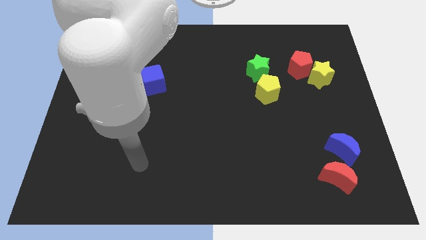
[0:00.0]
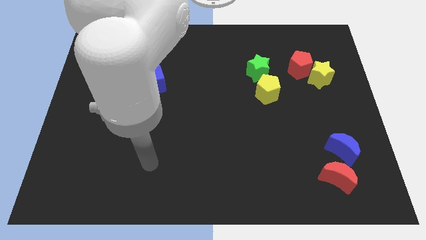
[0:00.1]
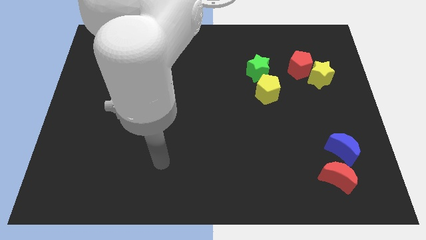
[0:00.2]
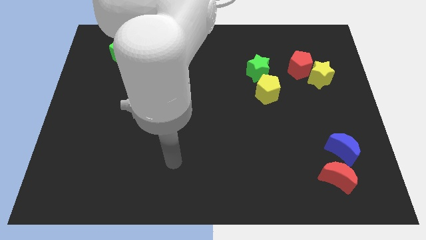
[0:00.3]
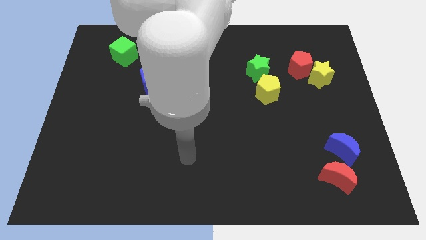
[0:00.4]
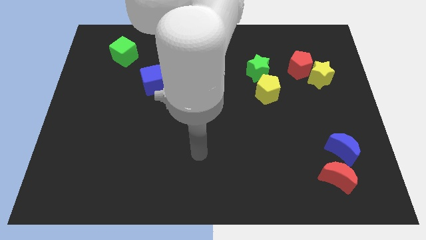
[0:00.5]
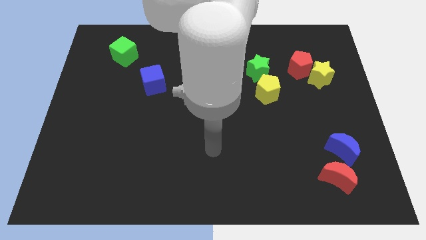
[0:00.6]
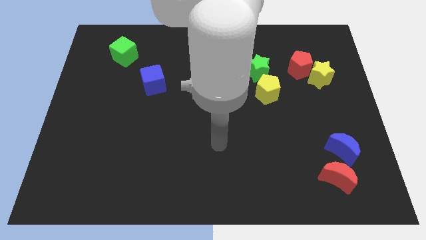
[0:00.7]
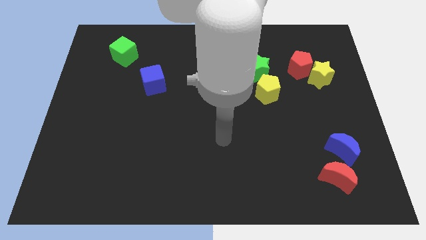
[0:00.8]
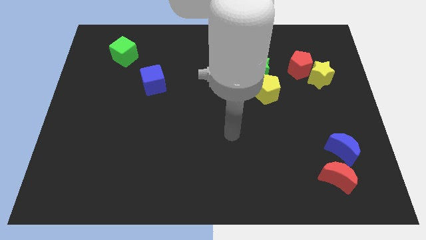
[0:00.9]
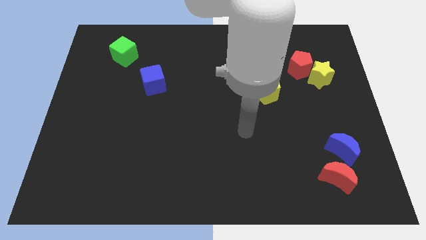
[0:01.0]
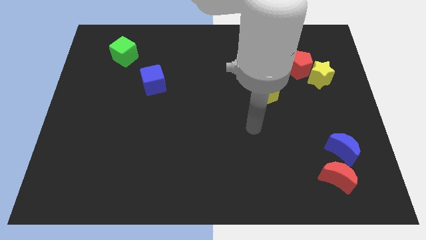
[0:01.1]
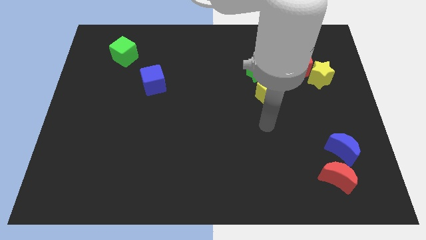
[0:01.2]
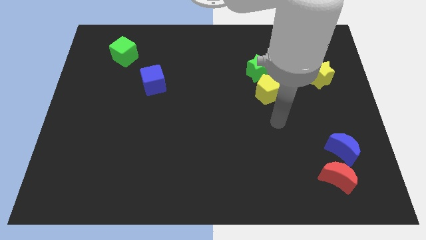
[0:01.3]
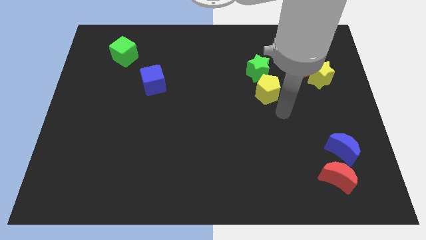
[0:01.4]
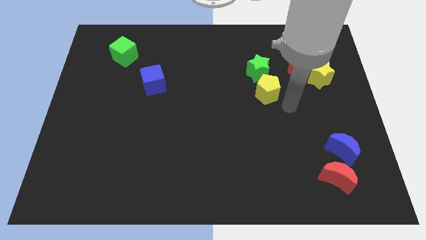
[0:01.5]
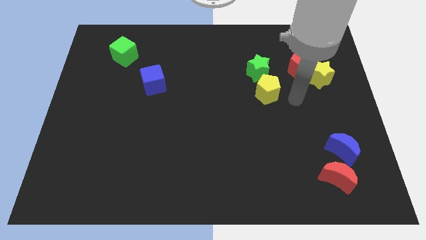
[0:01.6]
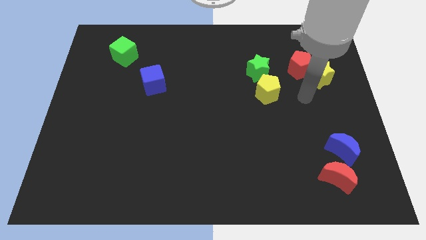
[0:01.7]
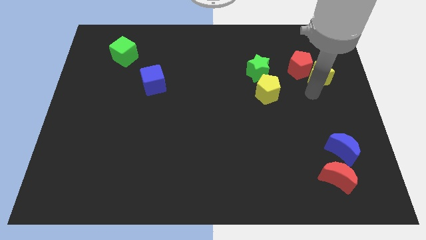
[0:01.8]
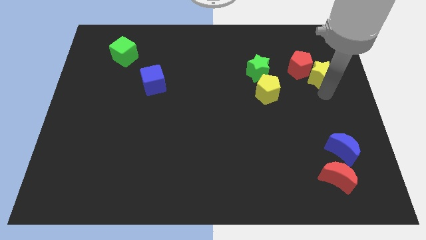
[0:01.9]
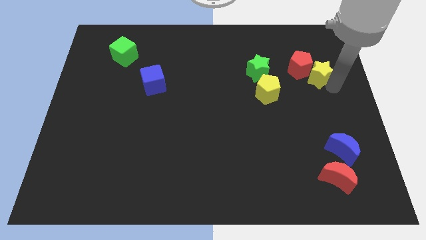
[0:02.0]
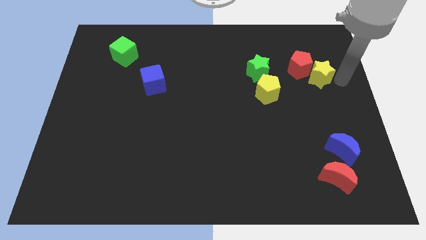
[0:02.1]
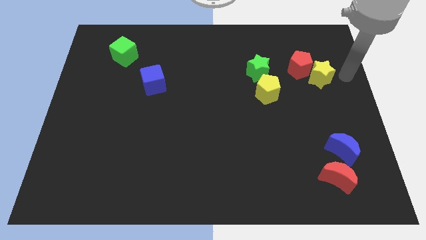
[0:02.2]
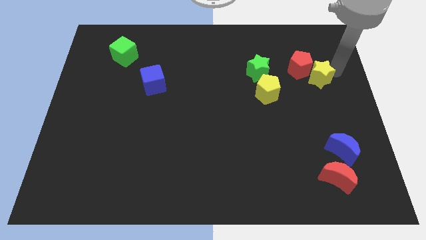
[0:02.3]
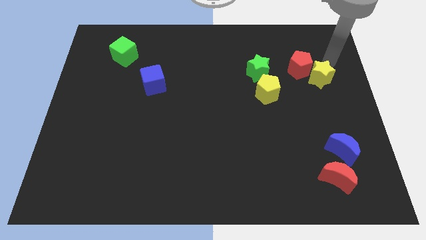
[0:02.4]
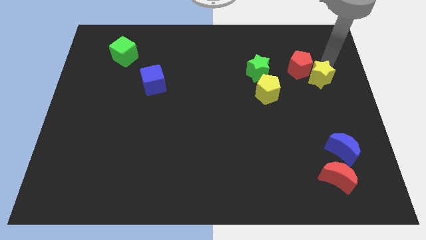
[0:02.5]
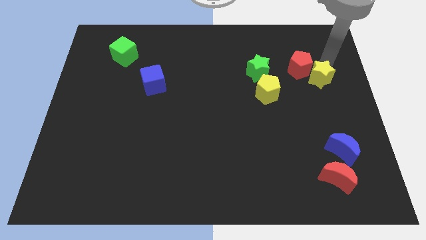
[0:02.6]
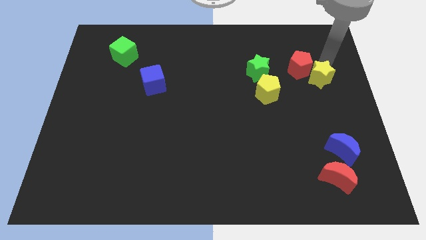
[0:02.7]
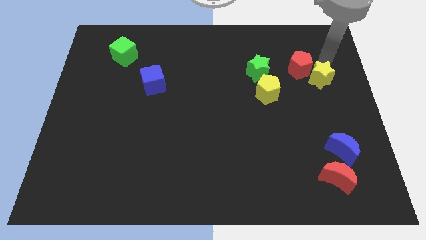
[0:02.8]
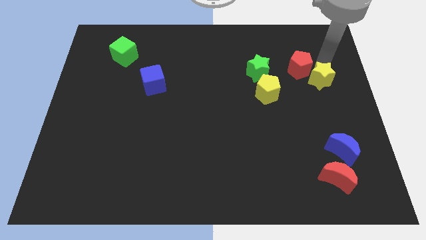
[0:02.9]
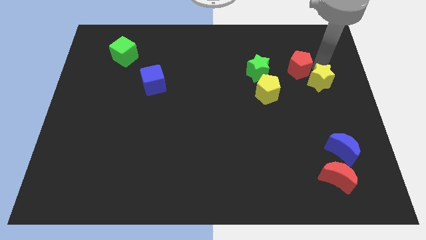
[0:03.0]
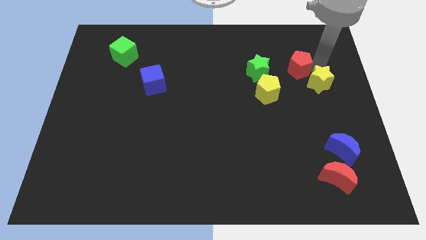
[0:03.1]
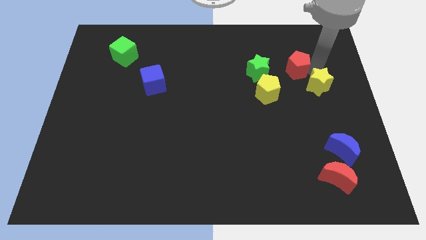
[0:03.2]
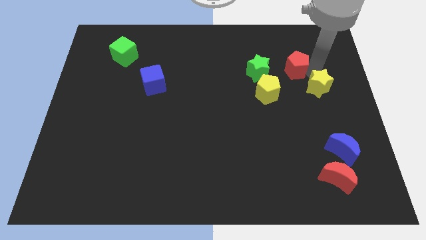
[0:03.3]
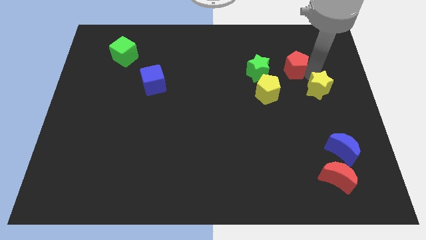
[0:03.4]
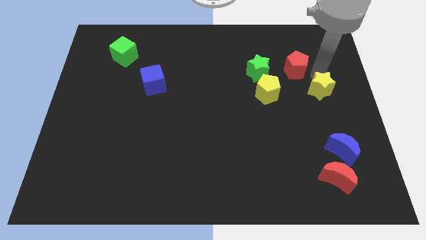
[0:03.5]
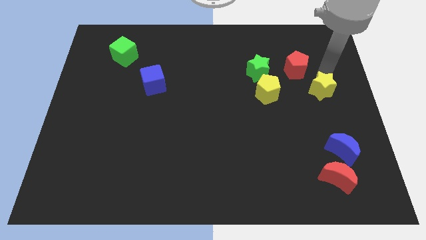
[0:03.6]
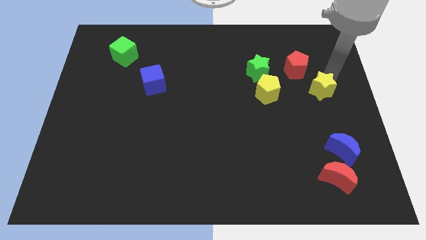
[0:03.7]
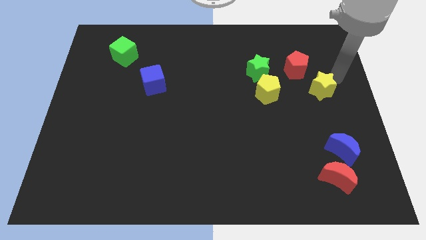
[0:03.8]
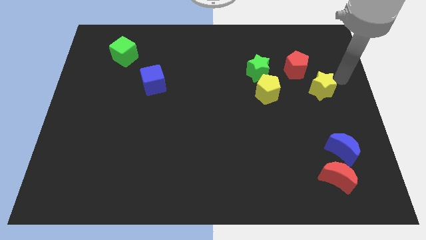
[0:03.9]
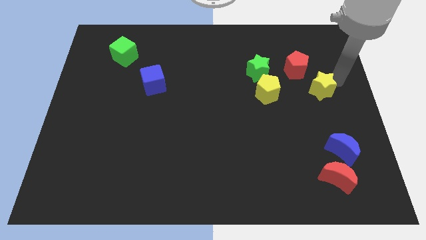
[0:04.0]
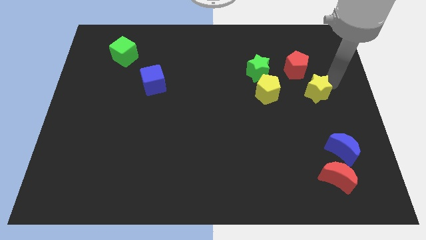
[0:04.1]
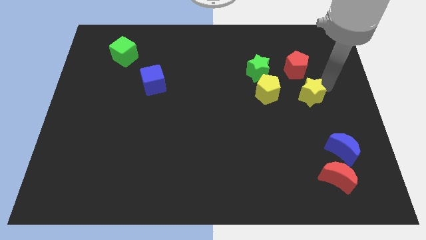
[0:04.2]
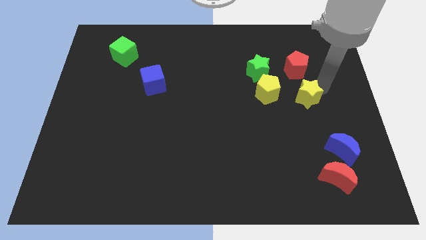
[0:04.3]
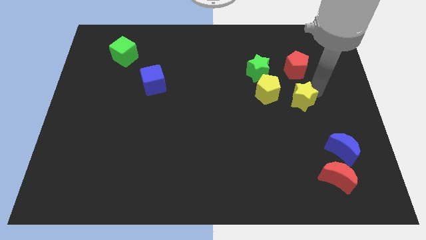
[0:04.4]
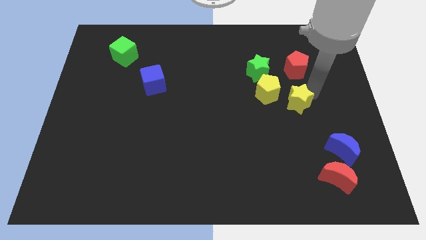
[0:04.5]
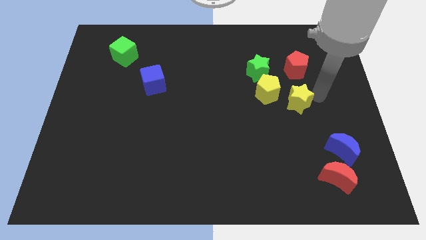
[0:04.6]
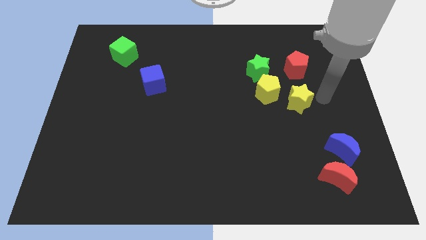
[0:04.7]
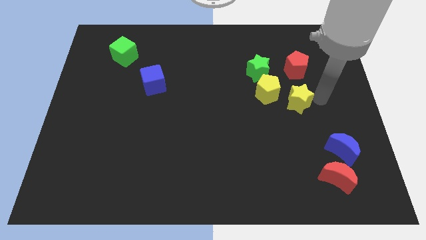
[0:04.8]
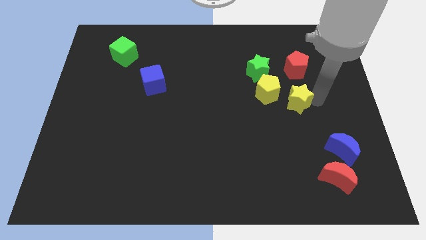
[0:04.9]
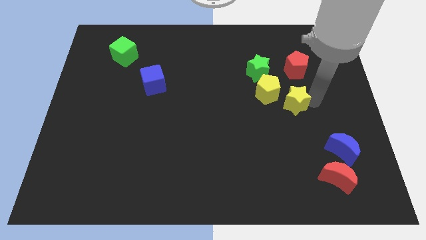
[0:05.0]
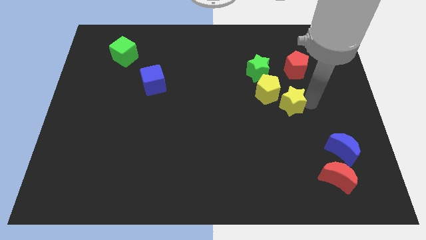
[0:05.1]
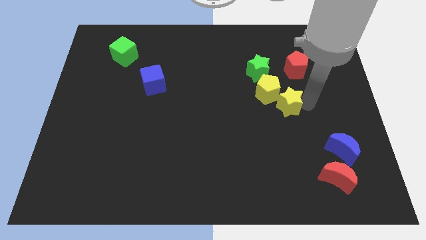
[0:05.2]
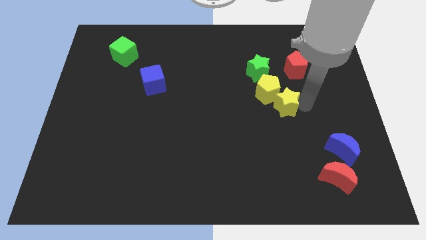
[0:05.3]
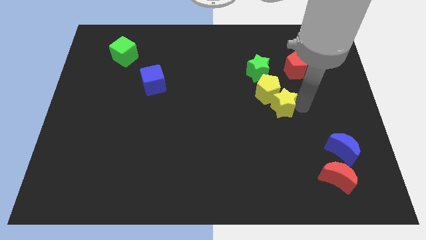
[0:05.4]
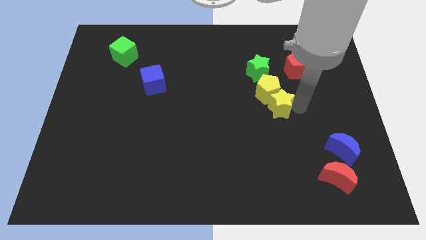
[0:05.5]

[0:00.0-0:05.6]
put the yellow star below the green star

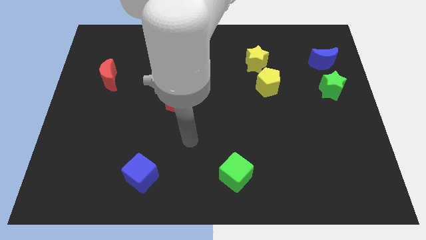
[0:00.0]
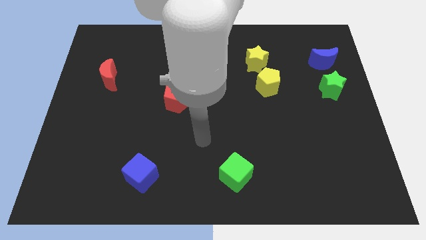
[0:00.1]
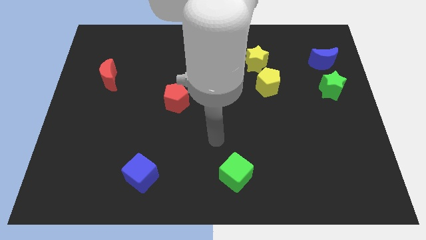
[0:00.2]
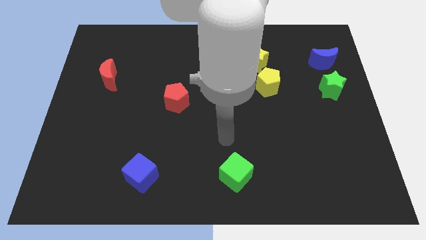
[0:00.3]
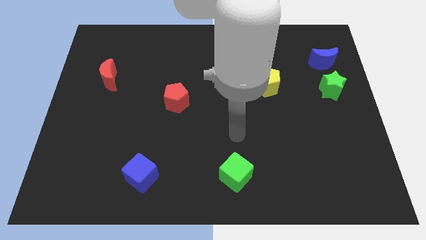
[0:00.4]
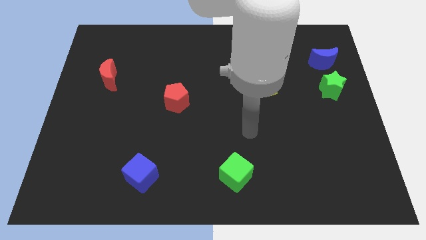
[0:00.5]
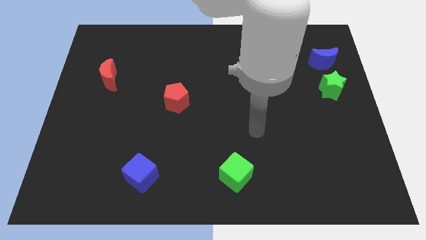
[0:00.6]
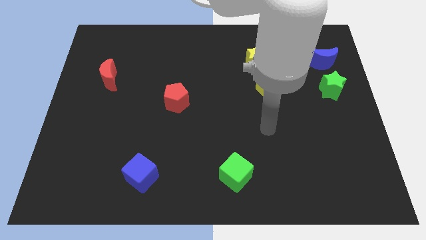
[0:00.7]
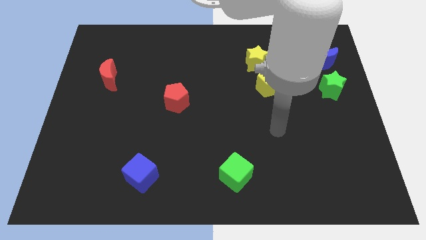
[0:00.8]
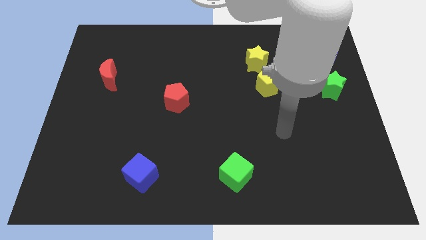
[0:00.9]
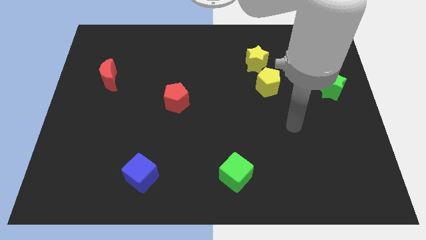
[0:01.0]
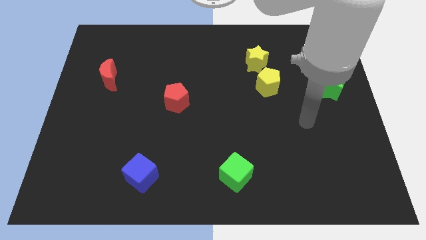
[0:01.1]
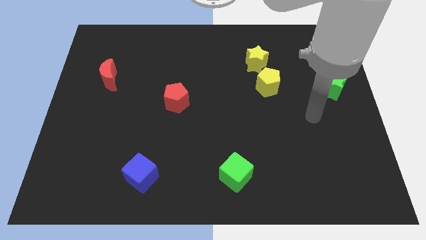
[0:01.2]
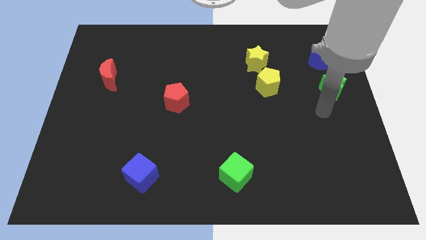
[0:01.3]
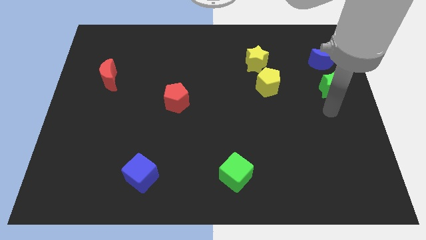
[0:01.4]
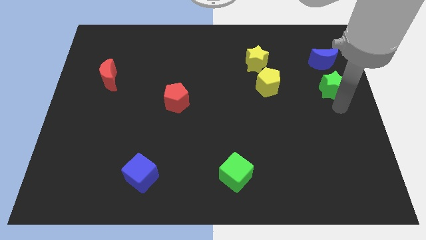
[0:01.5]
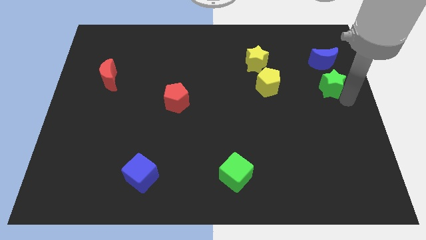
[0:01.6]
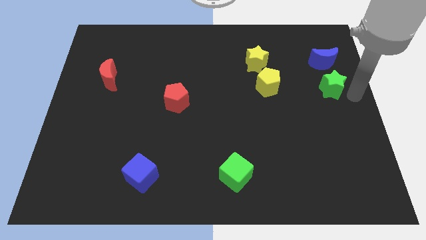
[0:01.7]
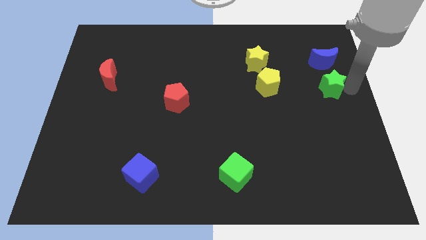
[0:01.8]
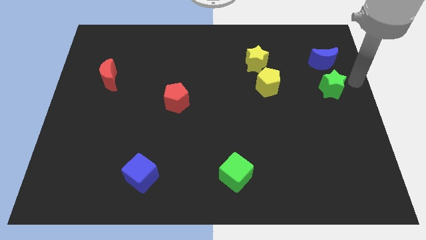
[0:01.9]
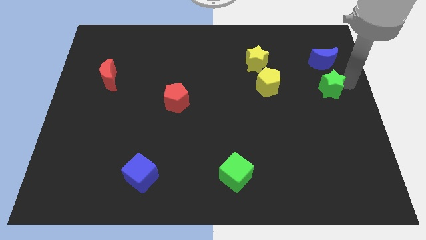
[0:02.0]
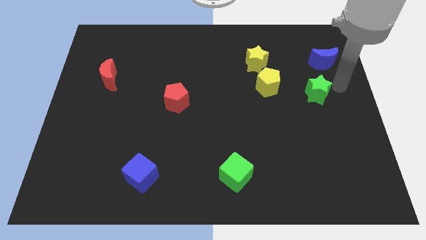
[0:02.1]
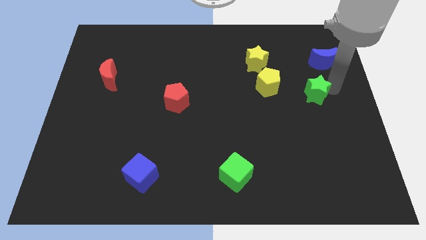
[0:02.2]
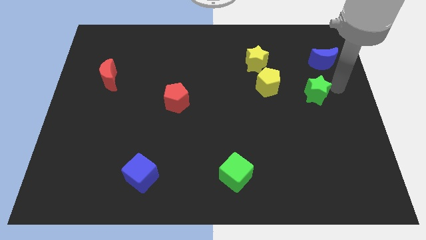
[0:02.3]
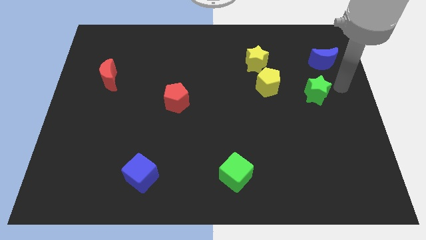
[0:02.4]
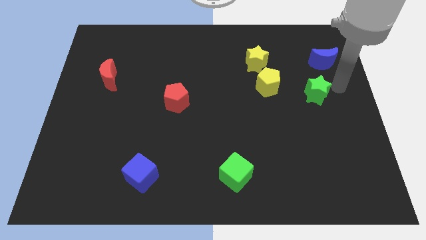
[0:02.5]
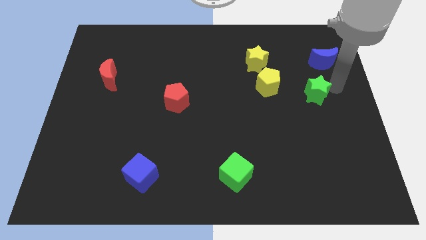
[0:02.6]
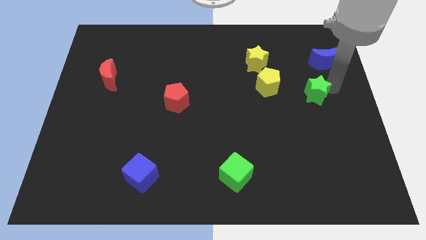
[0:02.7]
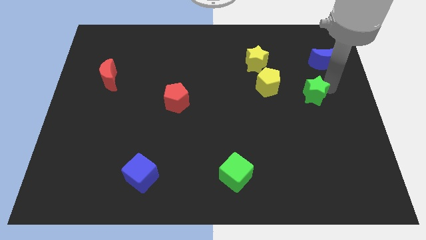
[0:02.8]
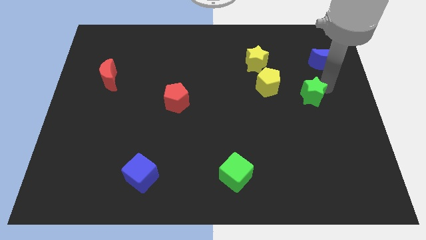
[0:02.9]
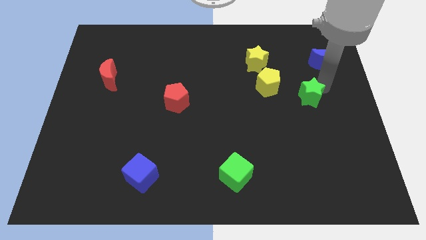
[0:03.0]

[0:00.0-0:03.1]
slide the green star to the bottom right of the yellow pentagon
